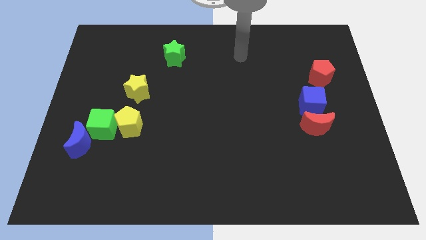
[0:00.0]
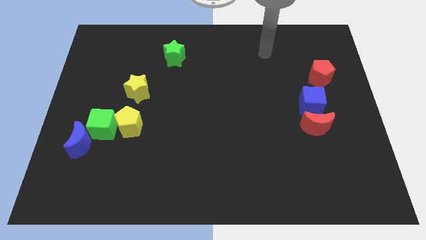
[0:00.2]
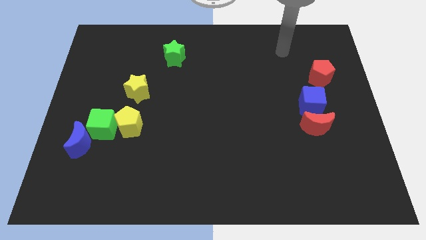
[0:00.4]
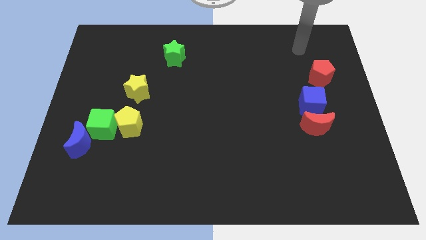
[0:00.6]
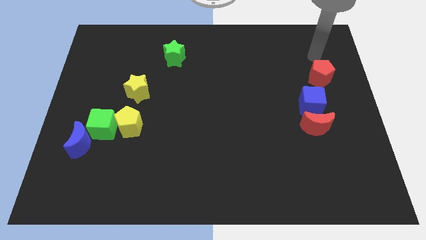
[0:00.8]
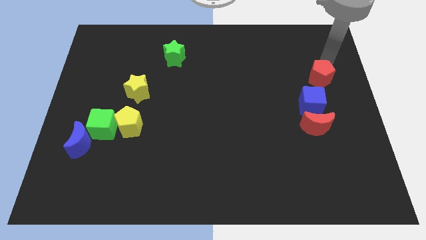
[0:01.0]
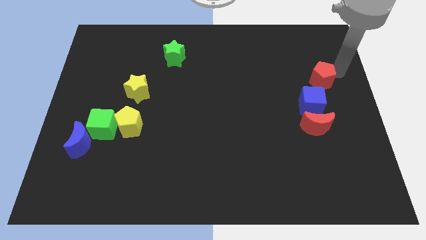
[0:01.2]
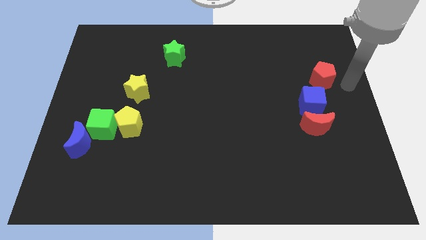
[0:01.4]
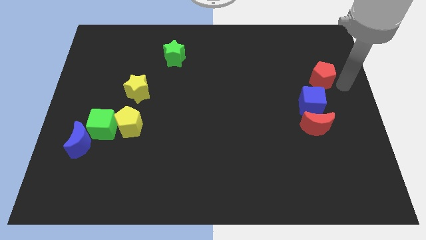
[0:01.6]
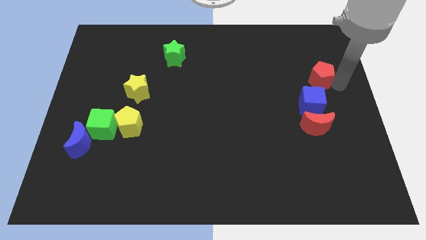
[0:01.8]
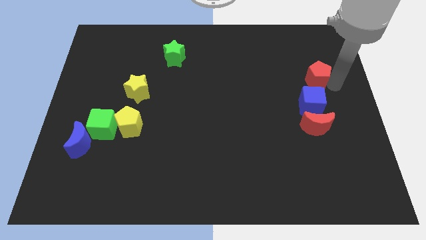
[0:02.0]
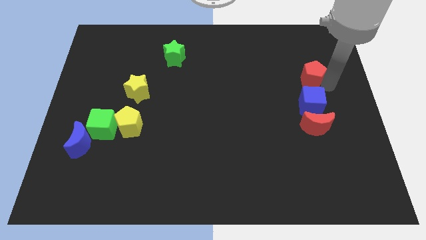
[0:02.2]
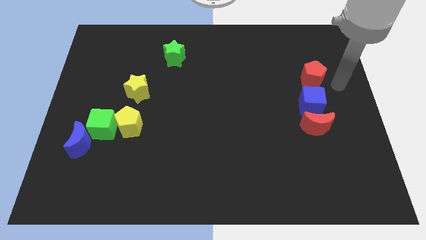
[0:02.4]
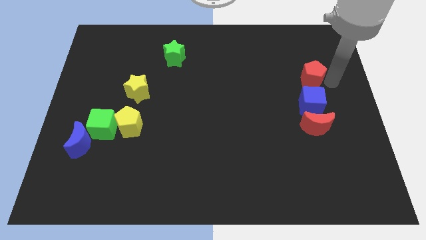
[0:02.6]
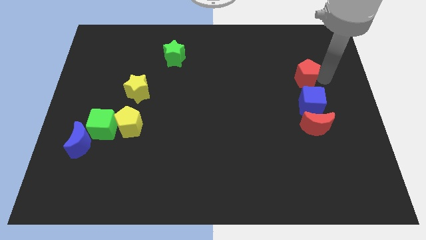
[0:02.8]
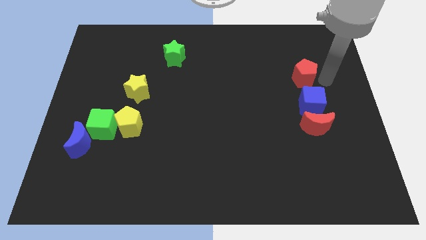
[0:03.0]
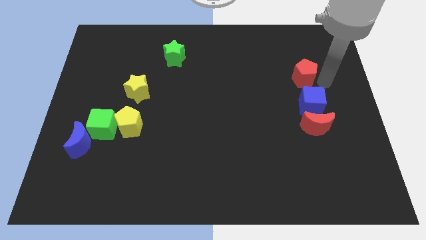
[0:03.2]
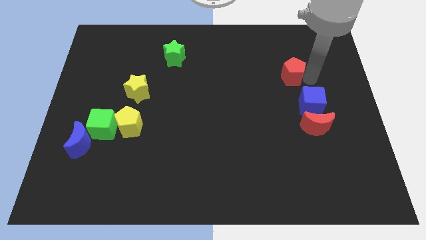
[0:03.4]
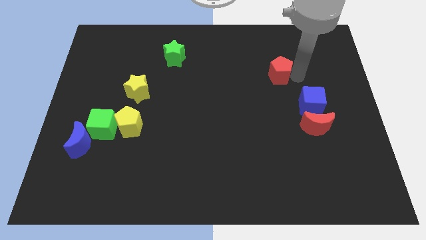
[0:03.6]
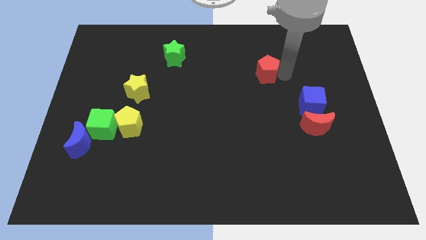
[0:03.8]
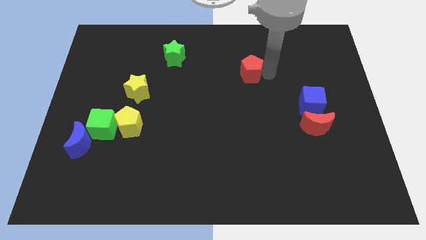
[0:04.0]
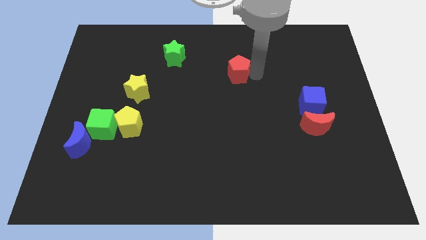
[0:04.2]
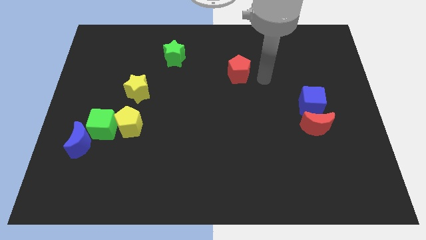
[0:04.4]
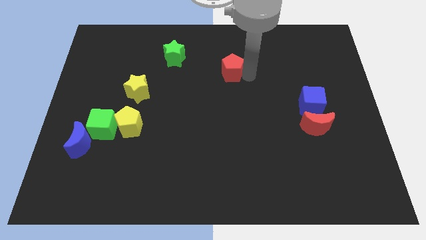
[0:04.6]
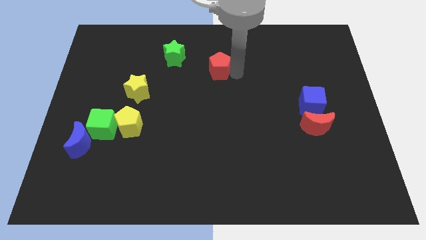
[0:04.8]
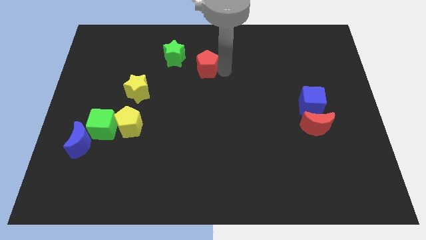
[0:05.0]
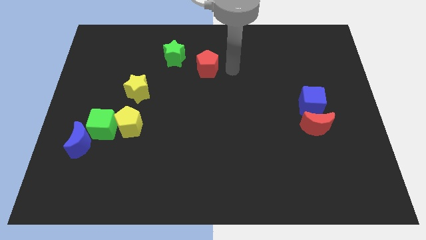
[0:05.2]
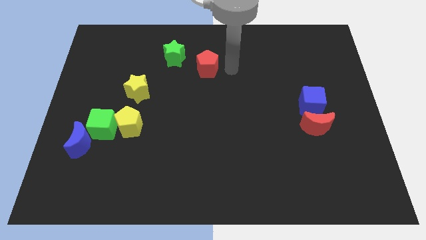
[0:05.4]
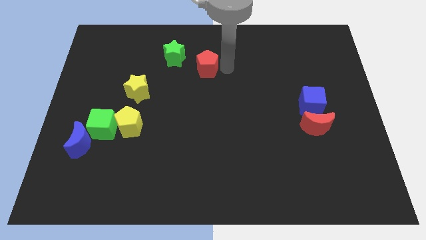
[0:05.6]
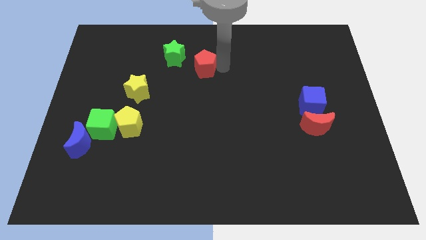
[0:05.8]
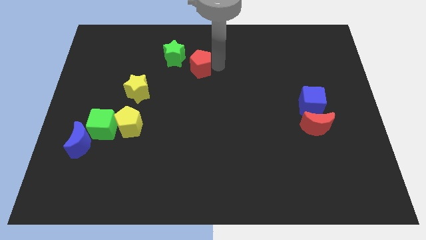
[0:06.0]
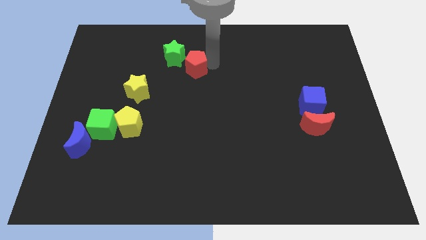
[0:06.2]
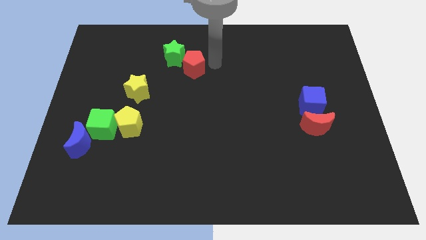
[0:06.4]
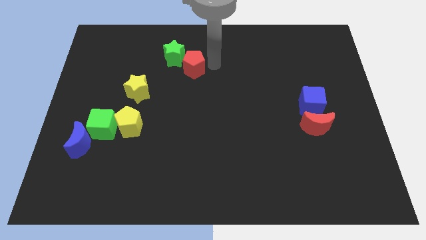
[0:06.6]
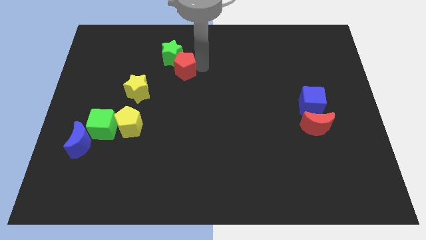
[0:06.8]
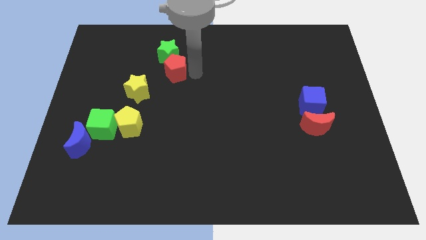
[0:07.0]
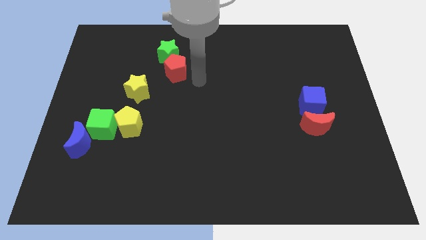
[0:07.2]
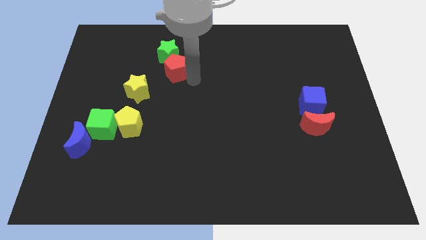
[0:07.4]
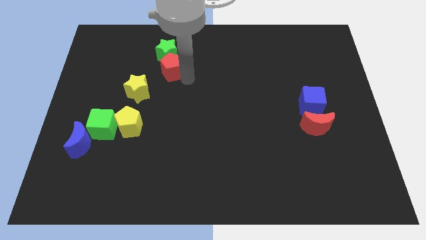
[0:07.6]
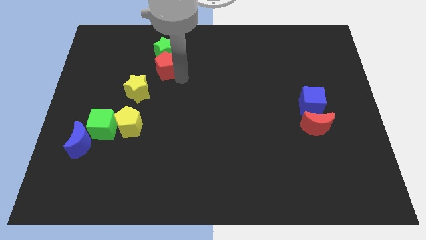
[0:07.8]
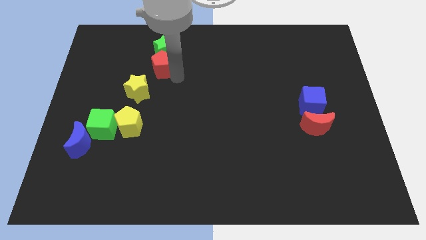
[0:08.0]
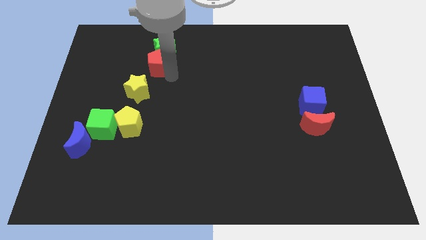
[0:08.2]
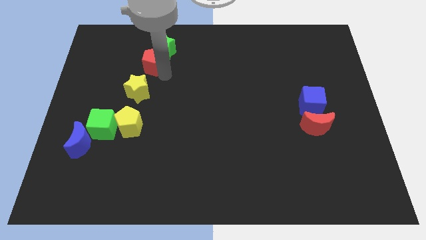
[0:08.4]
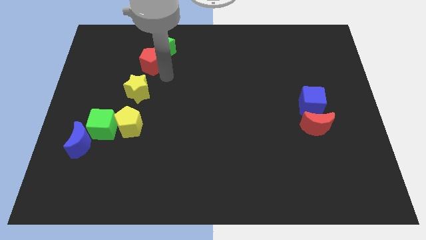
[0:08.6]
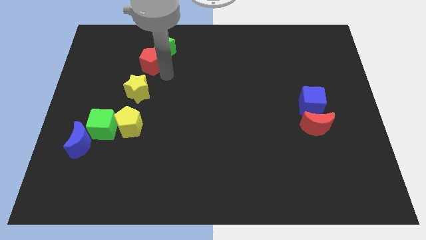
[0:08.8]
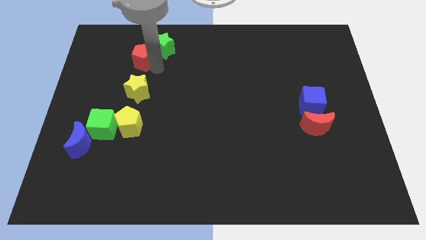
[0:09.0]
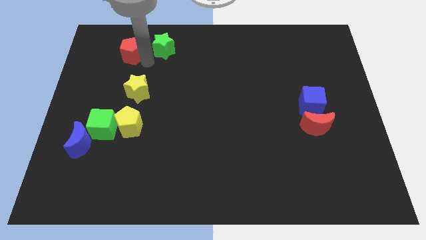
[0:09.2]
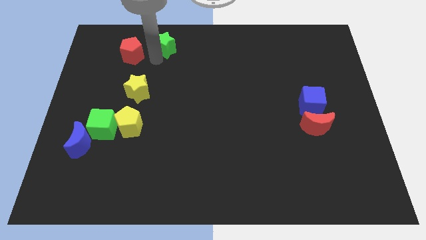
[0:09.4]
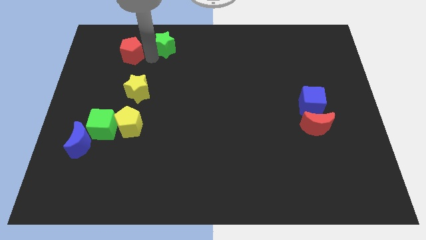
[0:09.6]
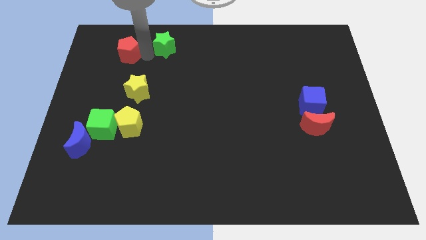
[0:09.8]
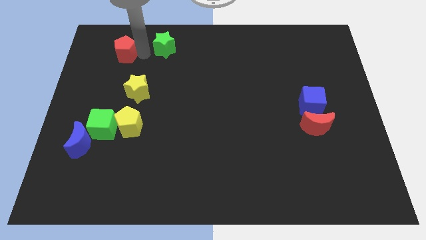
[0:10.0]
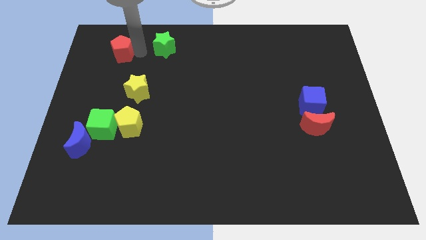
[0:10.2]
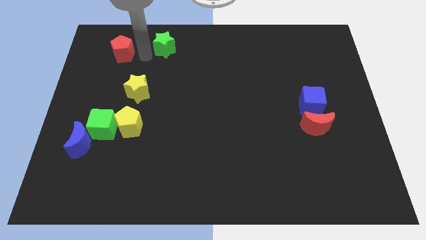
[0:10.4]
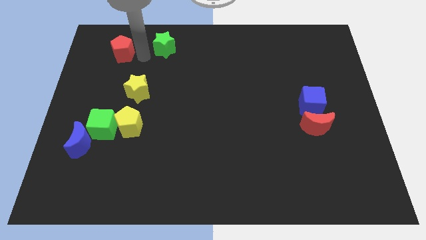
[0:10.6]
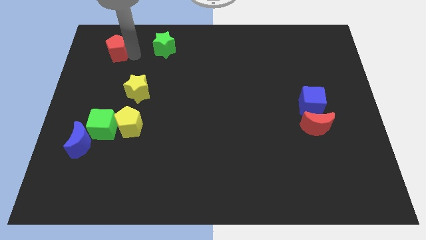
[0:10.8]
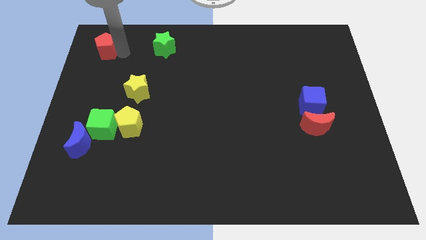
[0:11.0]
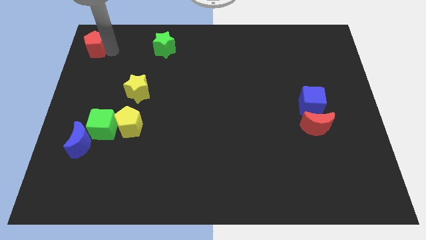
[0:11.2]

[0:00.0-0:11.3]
put the red pentagon to the top left of the board

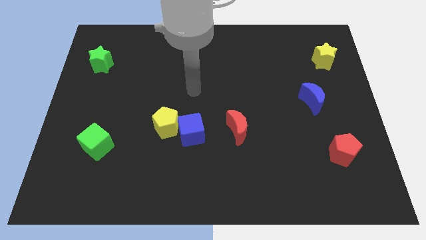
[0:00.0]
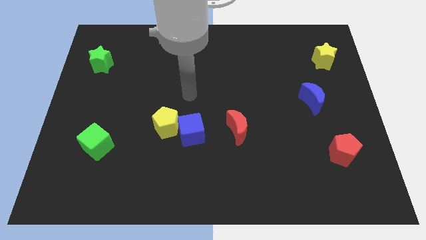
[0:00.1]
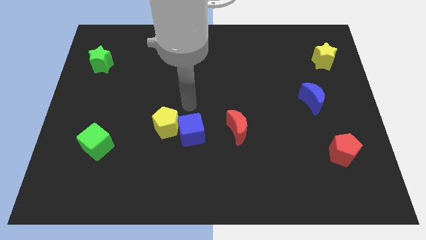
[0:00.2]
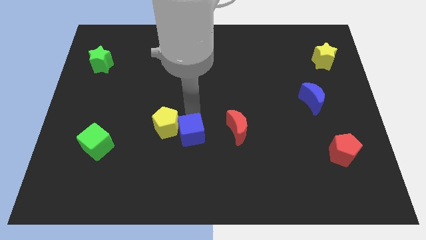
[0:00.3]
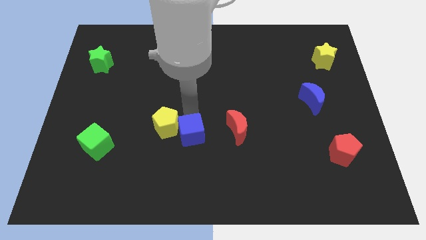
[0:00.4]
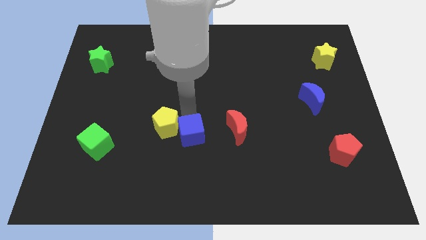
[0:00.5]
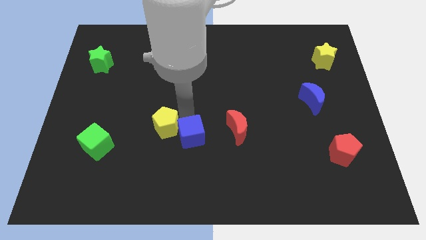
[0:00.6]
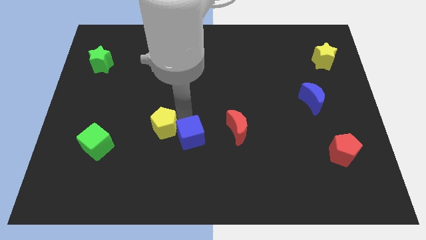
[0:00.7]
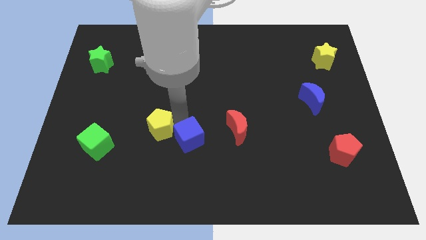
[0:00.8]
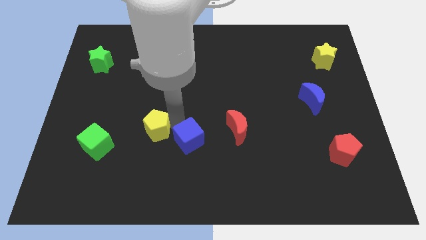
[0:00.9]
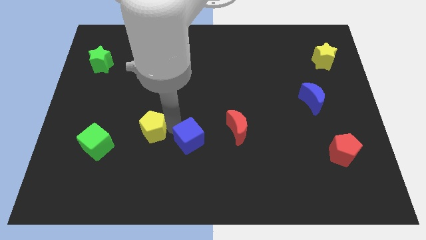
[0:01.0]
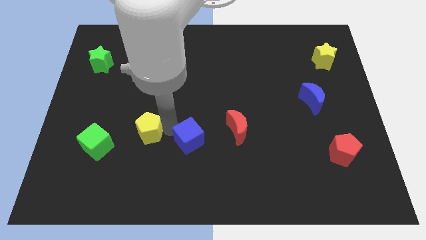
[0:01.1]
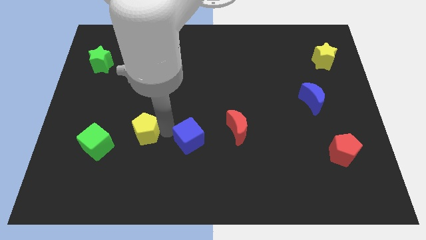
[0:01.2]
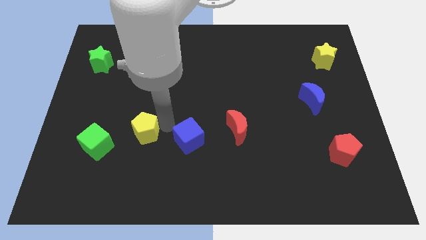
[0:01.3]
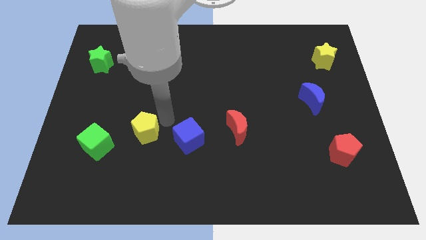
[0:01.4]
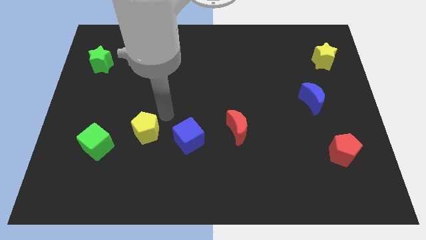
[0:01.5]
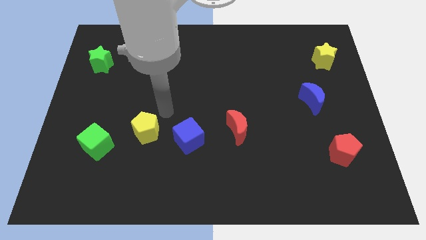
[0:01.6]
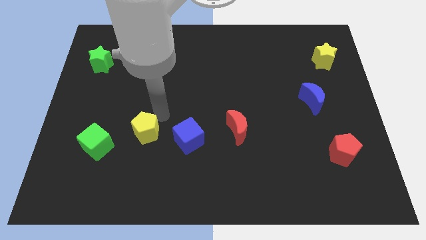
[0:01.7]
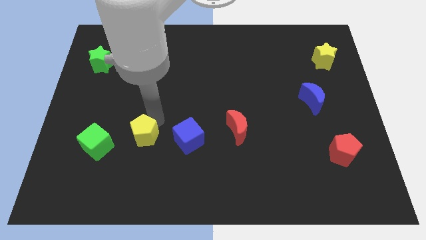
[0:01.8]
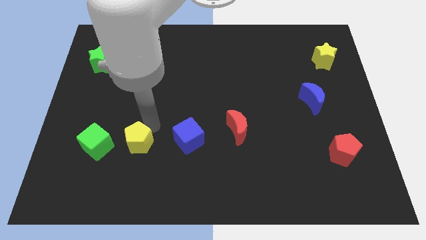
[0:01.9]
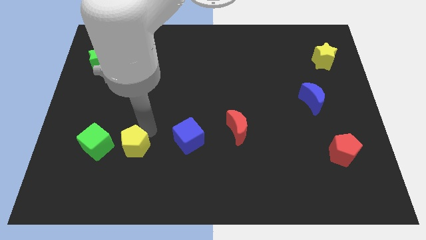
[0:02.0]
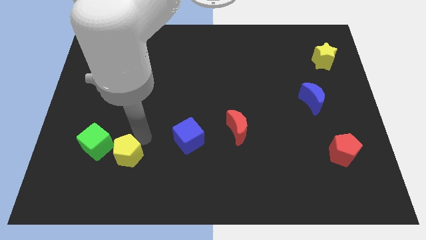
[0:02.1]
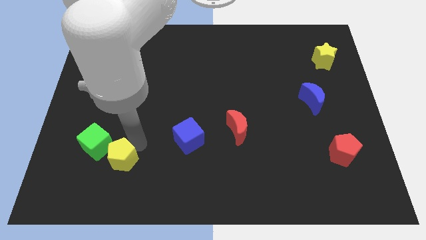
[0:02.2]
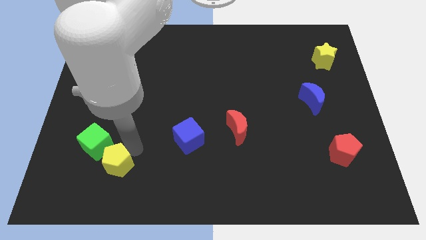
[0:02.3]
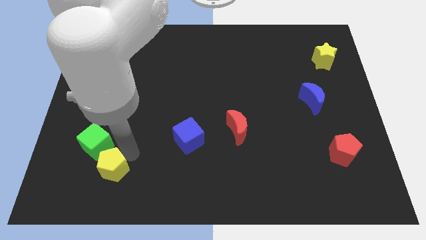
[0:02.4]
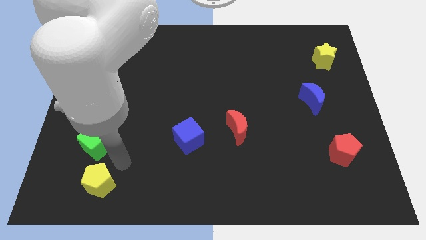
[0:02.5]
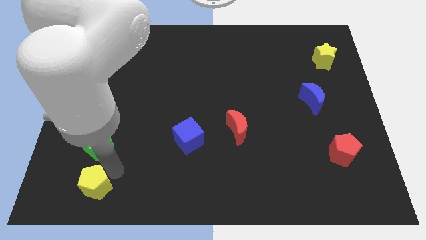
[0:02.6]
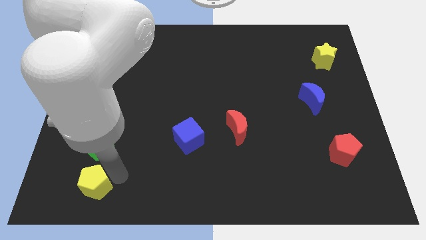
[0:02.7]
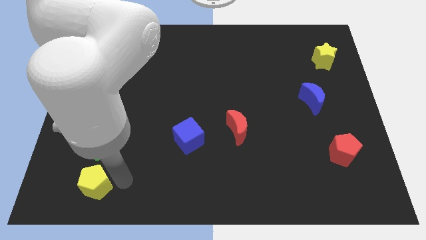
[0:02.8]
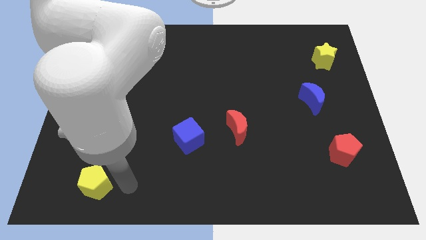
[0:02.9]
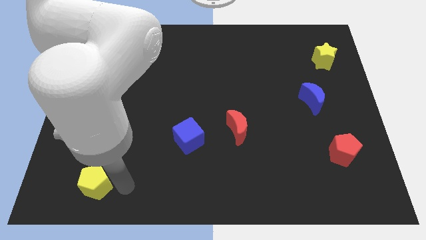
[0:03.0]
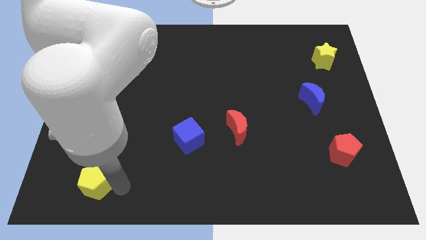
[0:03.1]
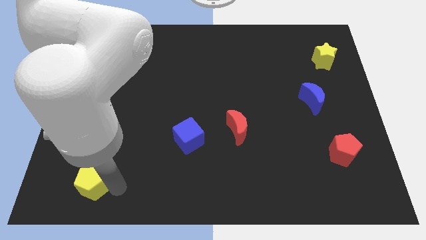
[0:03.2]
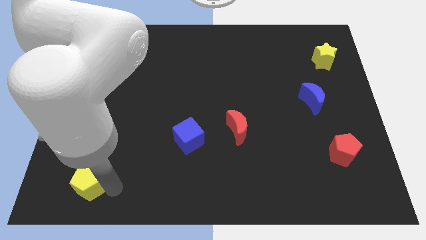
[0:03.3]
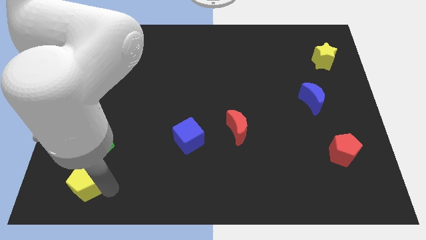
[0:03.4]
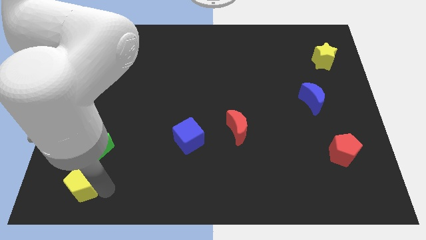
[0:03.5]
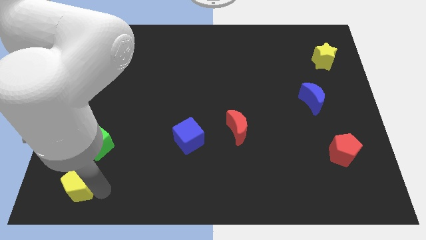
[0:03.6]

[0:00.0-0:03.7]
put the yellow pentagon to the bottom left corner
